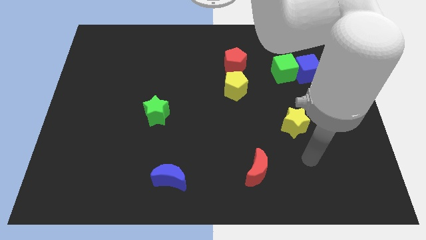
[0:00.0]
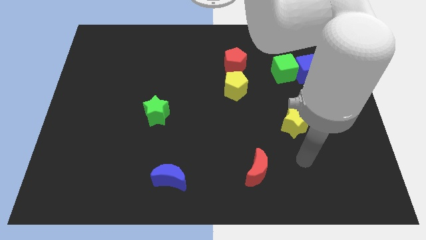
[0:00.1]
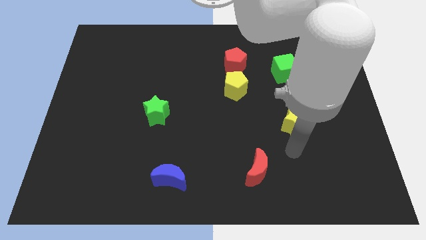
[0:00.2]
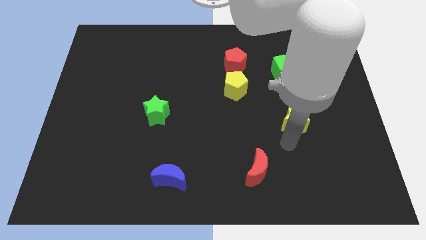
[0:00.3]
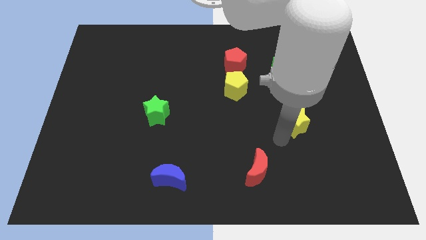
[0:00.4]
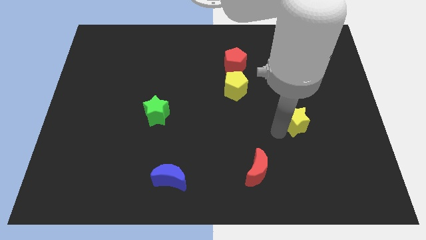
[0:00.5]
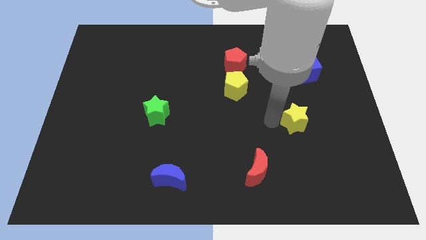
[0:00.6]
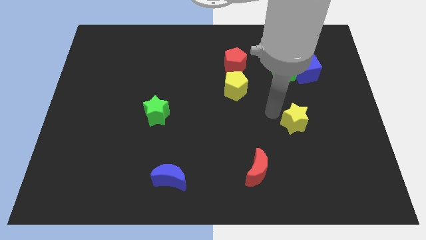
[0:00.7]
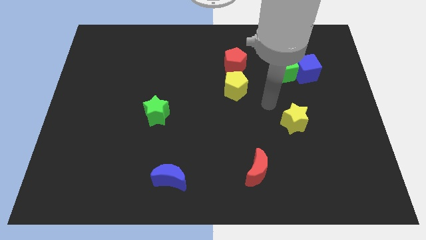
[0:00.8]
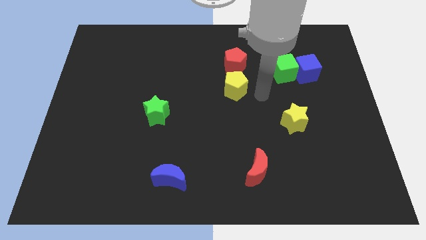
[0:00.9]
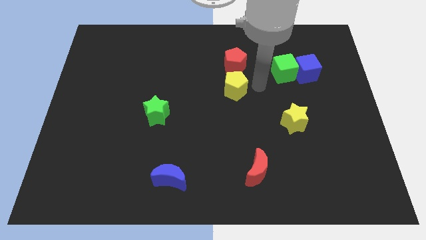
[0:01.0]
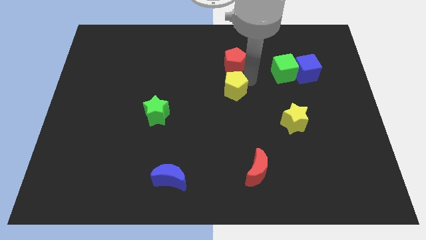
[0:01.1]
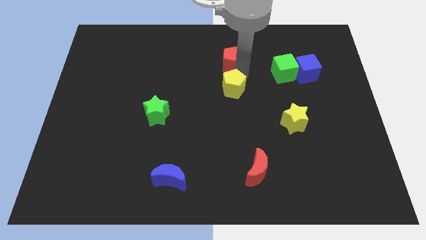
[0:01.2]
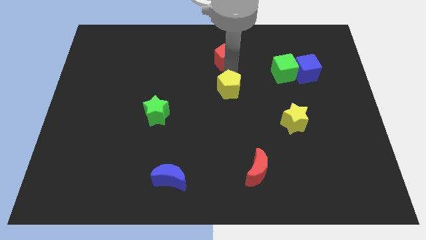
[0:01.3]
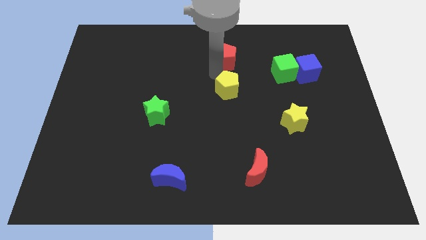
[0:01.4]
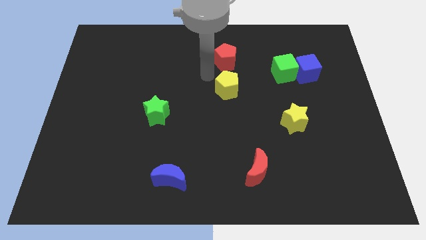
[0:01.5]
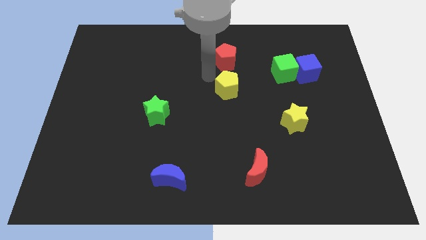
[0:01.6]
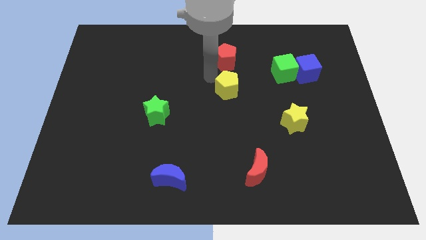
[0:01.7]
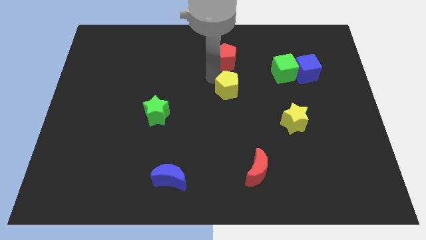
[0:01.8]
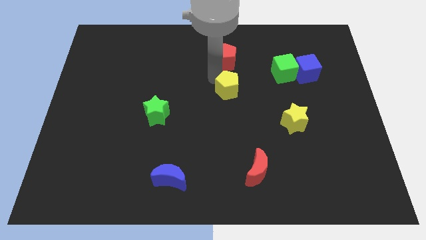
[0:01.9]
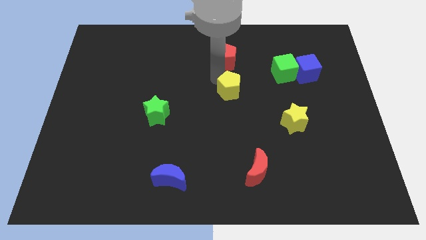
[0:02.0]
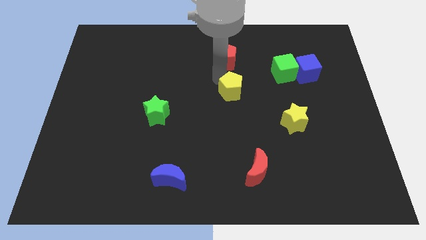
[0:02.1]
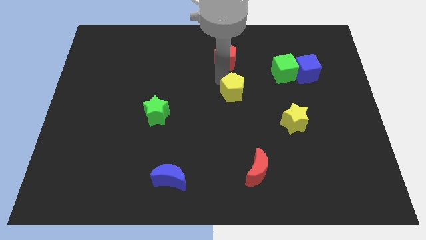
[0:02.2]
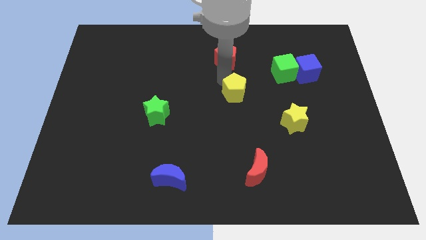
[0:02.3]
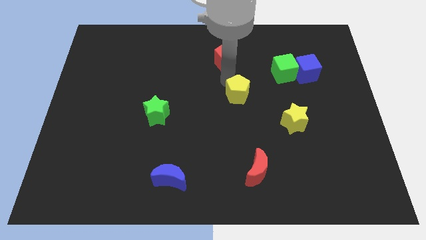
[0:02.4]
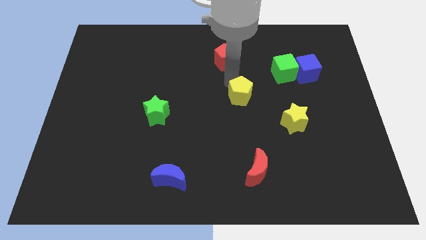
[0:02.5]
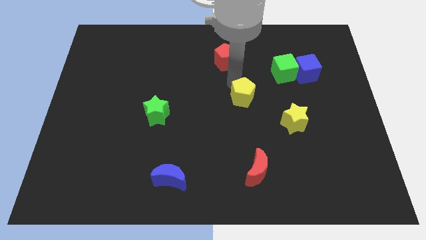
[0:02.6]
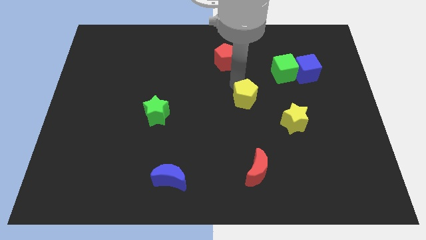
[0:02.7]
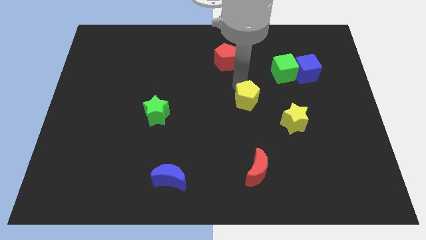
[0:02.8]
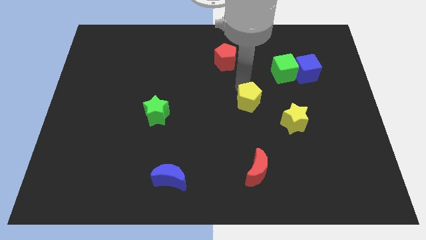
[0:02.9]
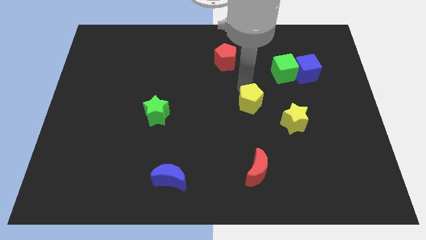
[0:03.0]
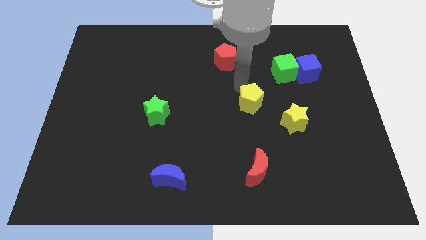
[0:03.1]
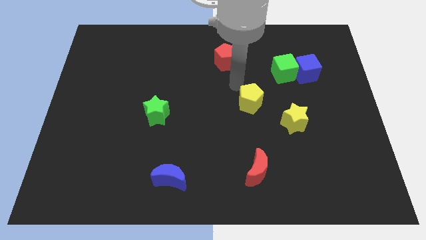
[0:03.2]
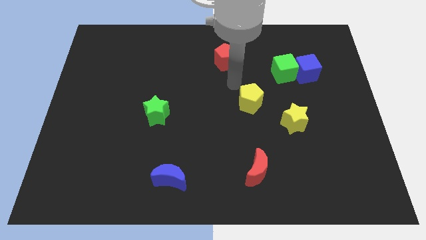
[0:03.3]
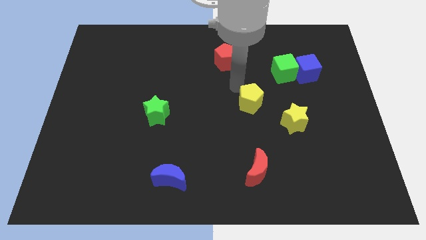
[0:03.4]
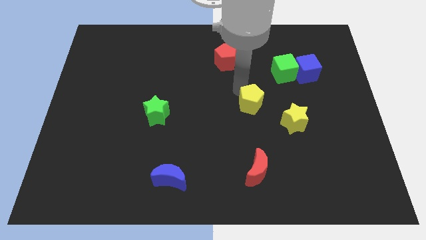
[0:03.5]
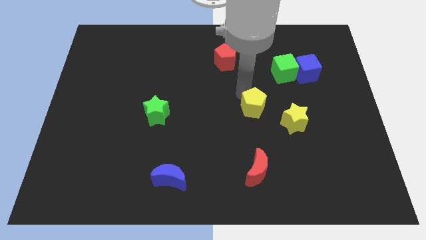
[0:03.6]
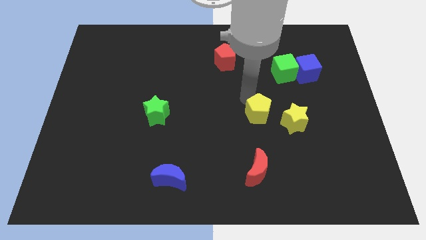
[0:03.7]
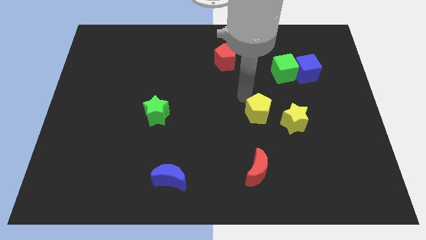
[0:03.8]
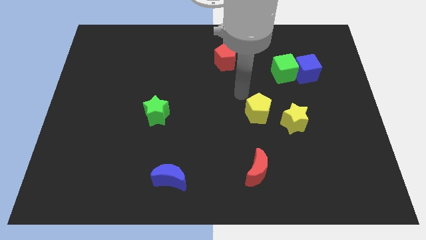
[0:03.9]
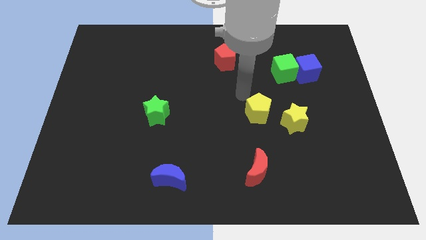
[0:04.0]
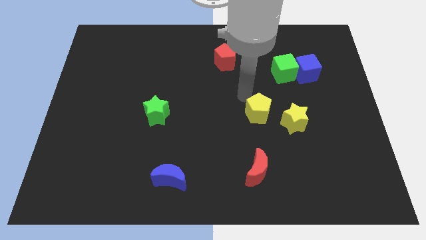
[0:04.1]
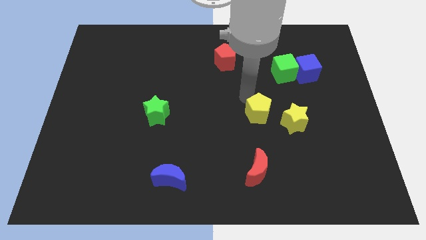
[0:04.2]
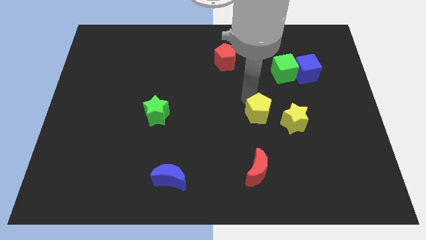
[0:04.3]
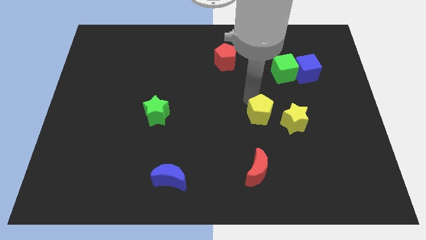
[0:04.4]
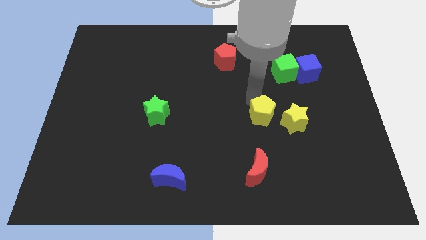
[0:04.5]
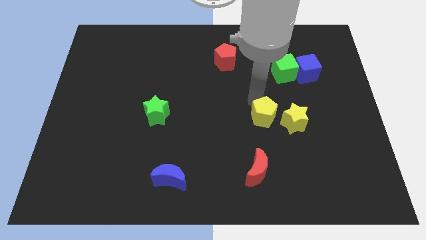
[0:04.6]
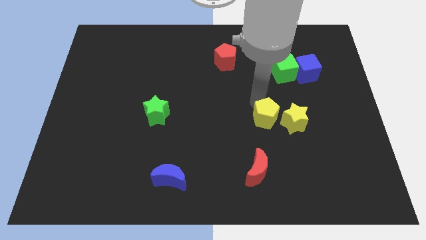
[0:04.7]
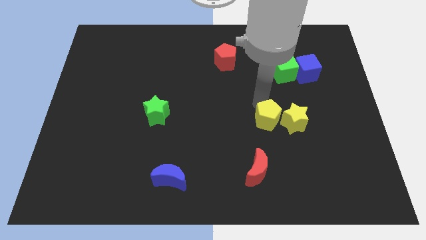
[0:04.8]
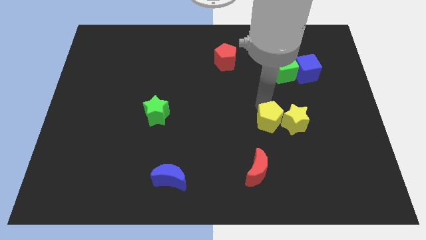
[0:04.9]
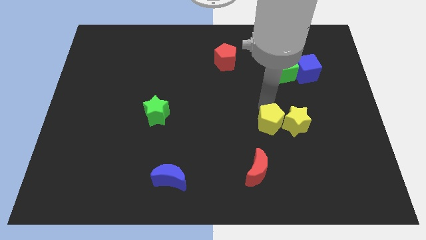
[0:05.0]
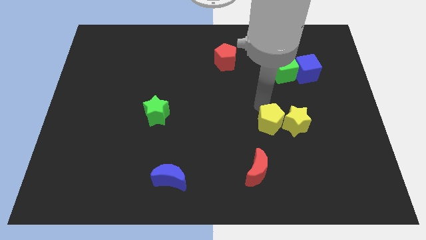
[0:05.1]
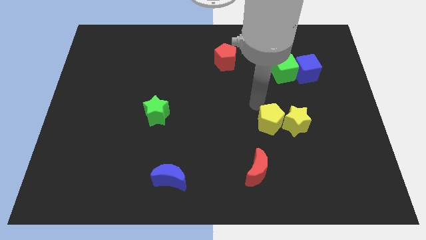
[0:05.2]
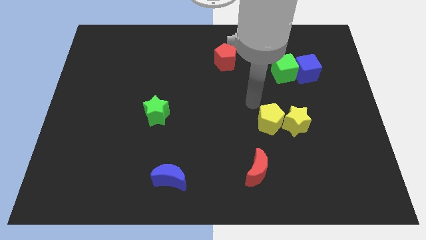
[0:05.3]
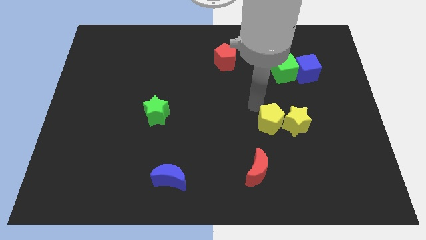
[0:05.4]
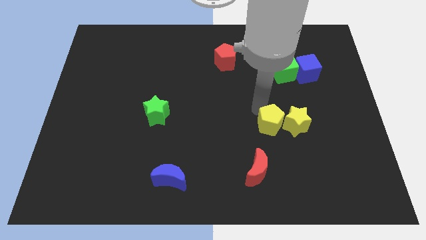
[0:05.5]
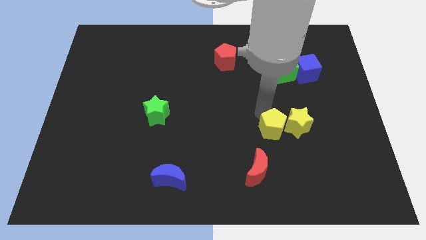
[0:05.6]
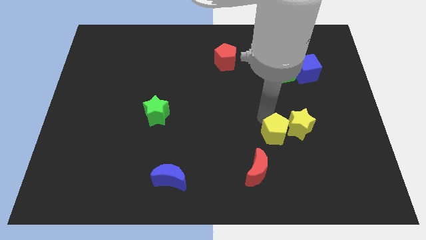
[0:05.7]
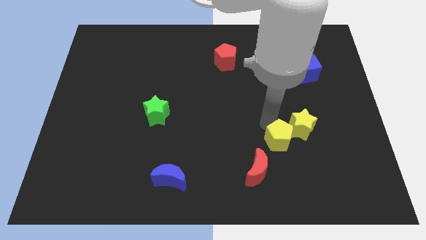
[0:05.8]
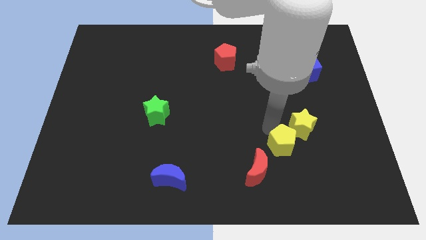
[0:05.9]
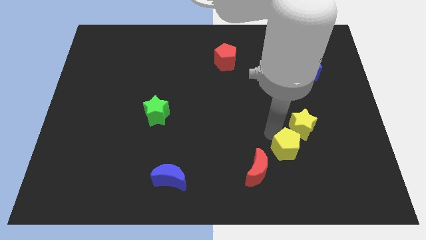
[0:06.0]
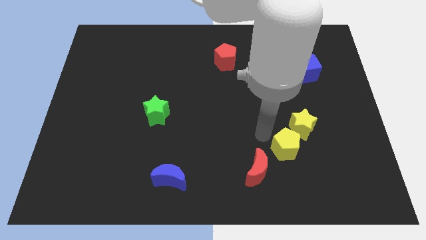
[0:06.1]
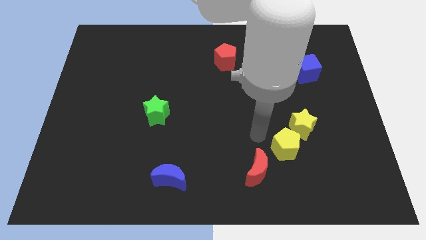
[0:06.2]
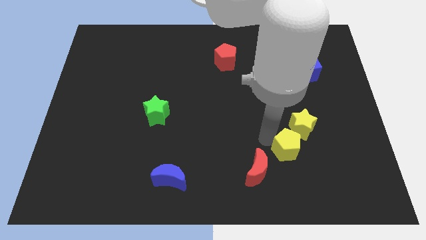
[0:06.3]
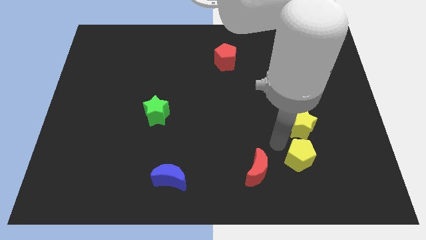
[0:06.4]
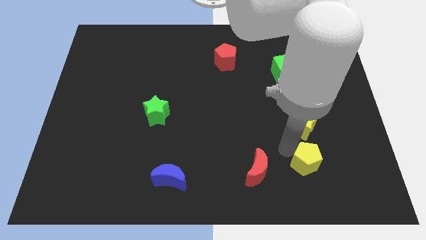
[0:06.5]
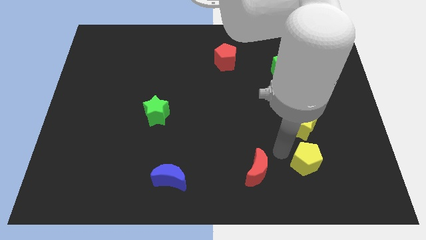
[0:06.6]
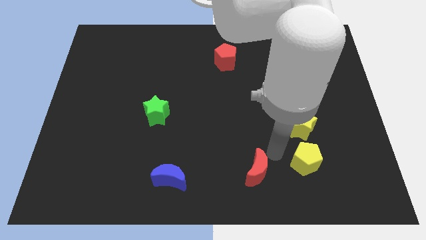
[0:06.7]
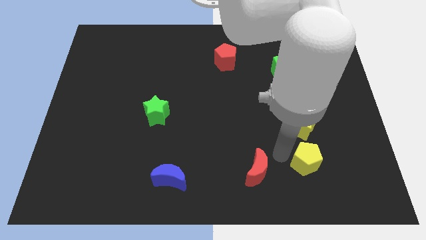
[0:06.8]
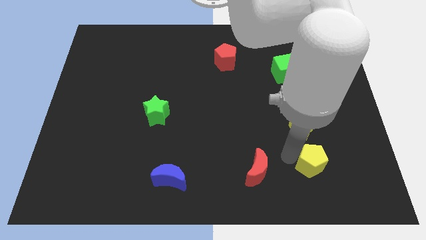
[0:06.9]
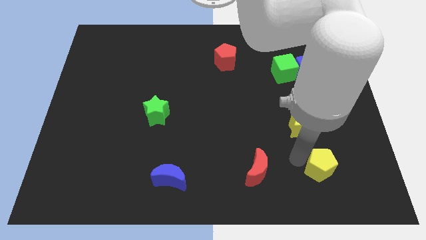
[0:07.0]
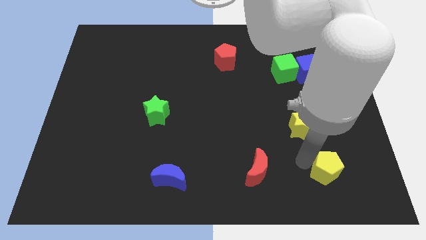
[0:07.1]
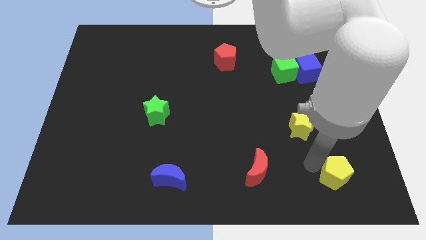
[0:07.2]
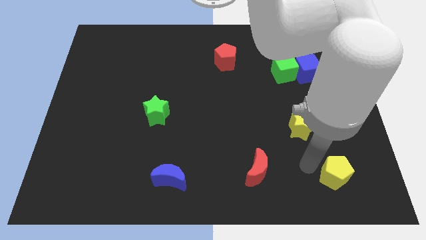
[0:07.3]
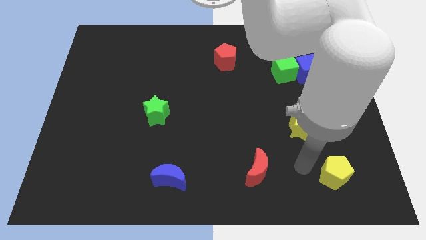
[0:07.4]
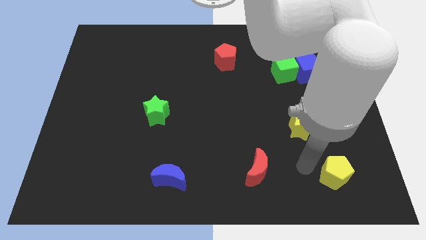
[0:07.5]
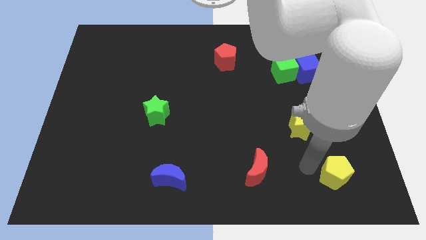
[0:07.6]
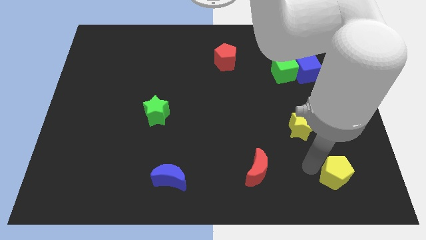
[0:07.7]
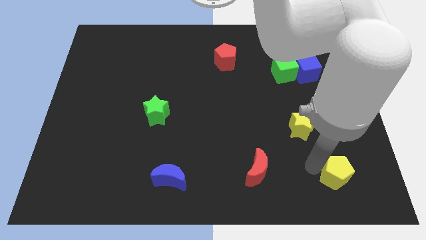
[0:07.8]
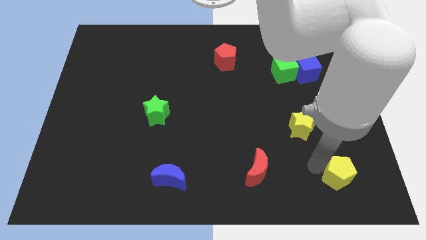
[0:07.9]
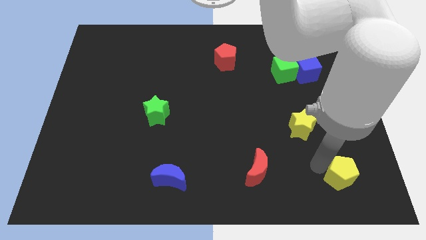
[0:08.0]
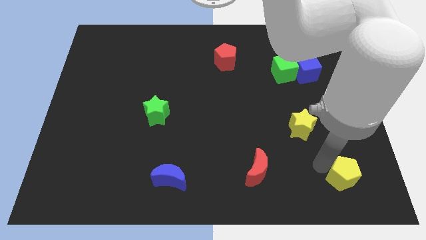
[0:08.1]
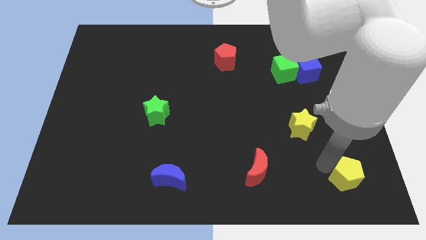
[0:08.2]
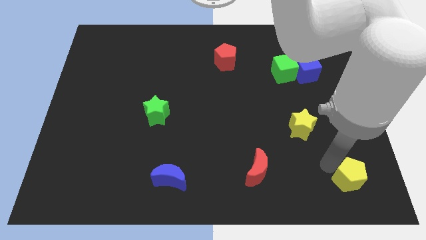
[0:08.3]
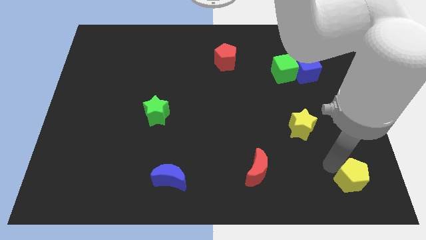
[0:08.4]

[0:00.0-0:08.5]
put the yellow pentagon to the bottom right corner
